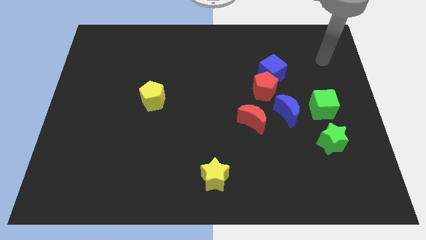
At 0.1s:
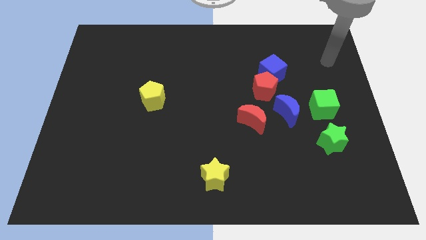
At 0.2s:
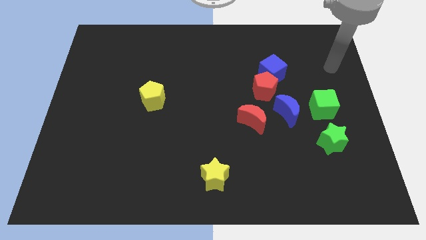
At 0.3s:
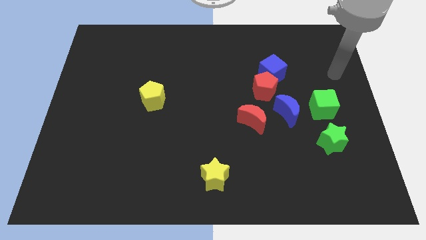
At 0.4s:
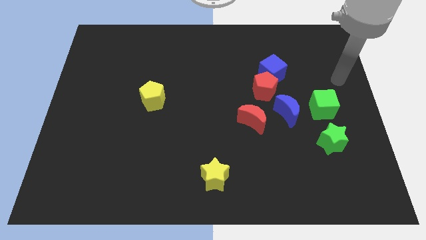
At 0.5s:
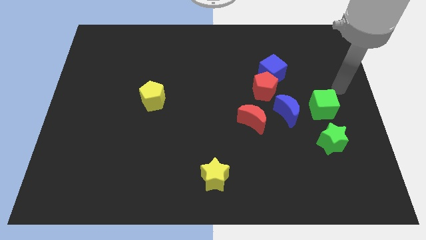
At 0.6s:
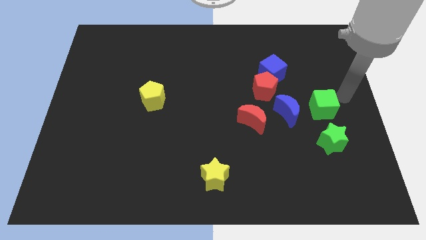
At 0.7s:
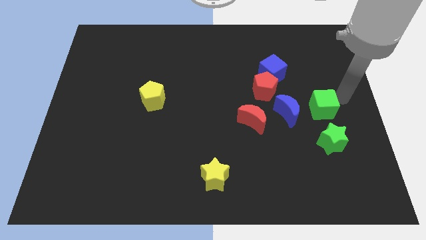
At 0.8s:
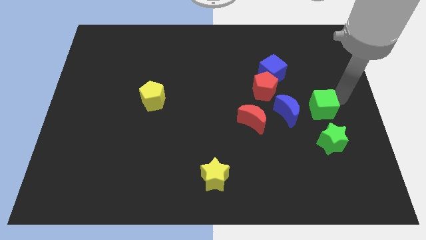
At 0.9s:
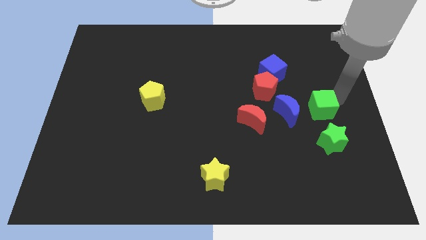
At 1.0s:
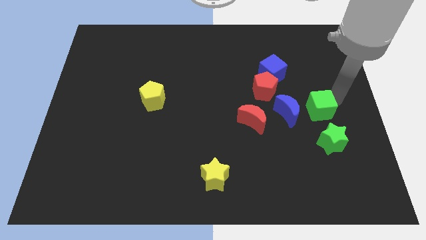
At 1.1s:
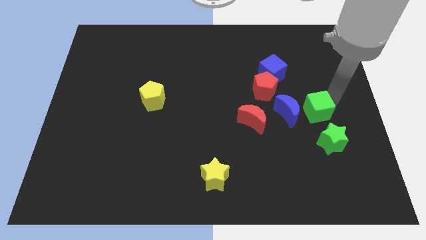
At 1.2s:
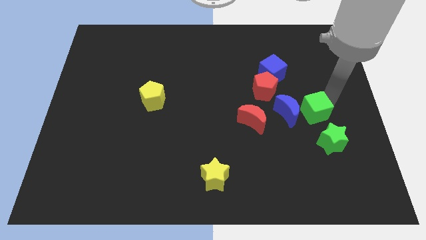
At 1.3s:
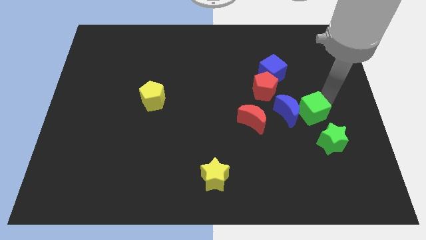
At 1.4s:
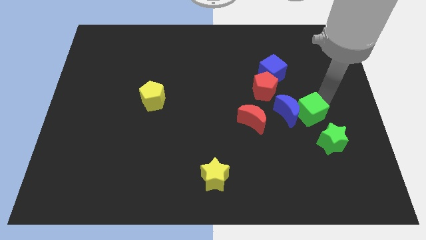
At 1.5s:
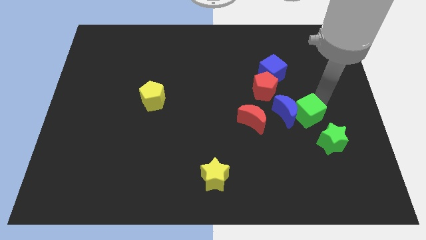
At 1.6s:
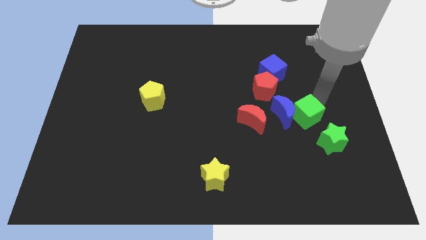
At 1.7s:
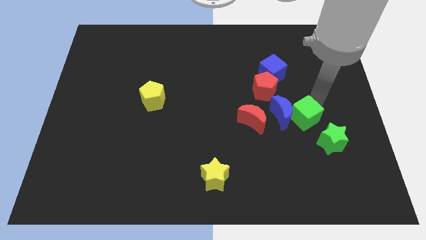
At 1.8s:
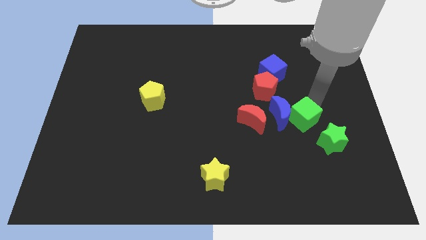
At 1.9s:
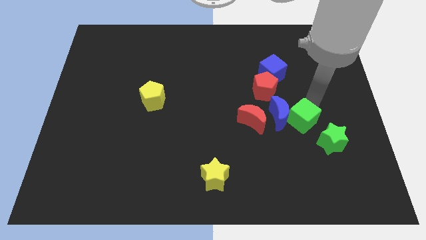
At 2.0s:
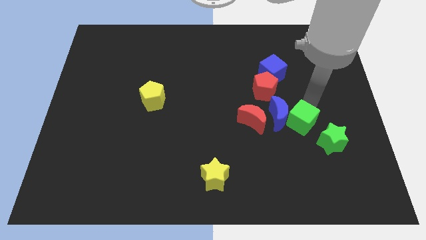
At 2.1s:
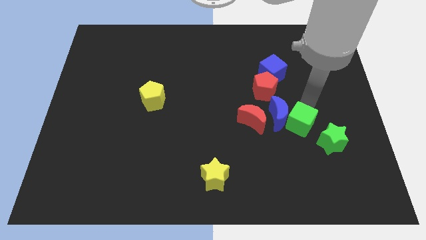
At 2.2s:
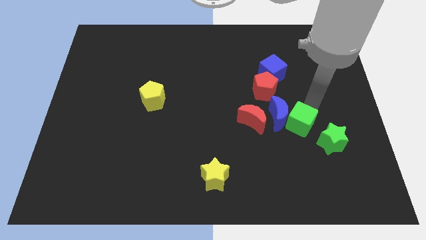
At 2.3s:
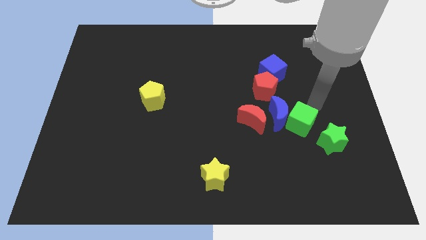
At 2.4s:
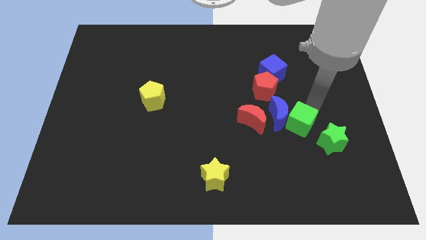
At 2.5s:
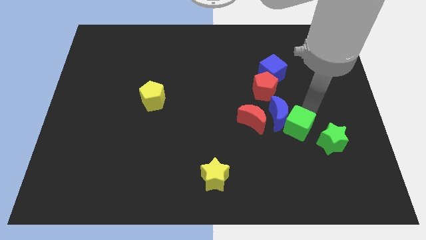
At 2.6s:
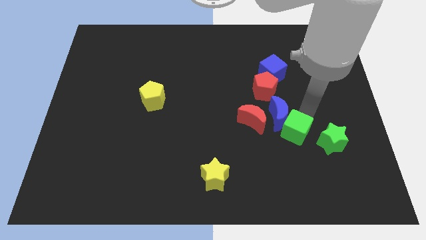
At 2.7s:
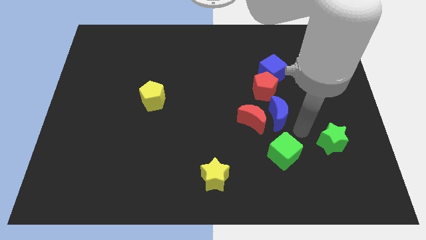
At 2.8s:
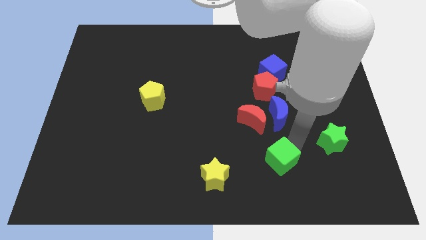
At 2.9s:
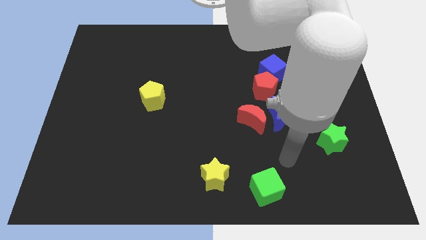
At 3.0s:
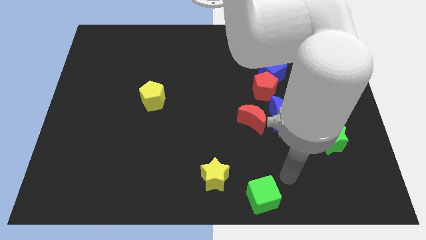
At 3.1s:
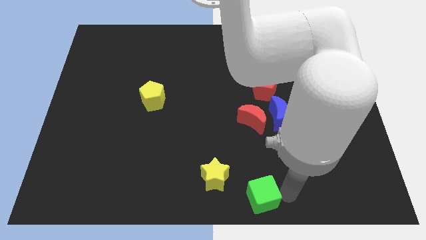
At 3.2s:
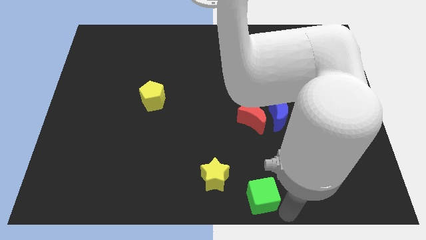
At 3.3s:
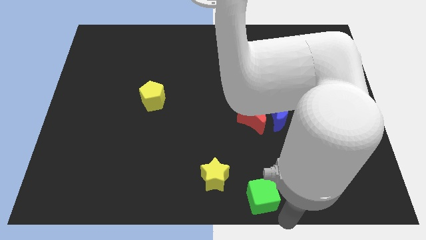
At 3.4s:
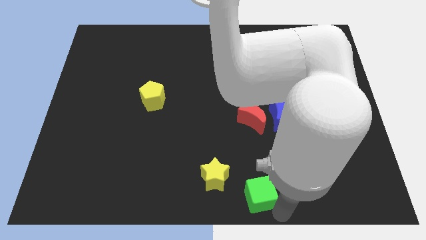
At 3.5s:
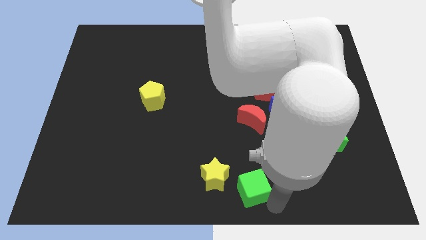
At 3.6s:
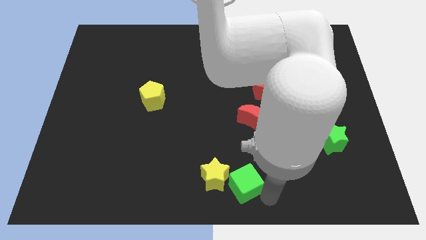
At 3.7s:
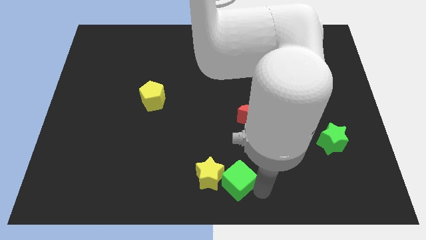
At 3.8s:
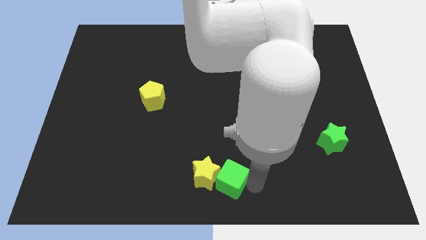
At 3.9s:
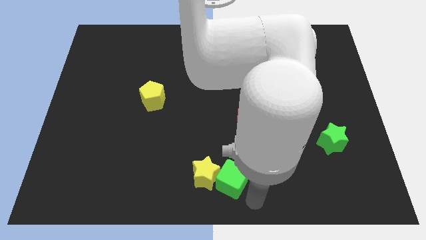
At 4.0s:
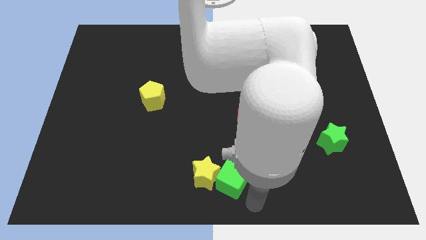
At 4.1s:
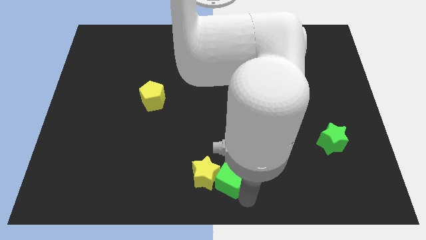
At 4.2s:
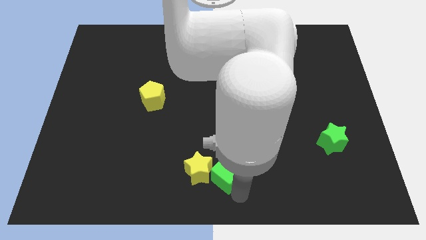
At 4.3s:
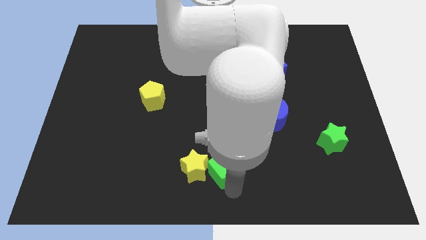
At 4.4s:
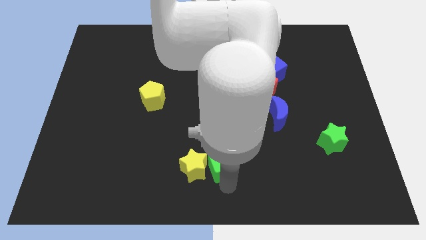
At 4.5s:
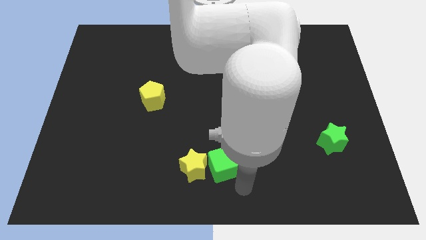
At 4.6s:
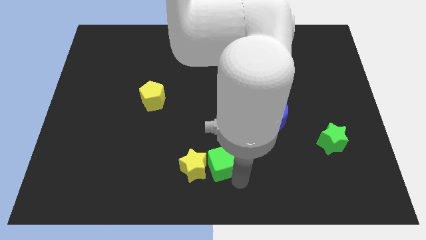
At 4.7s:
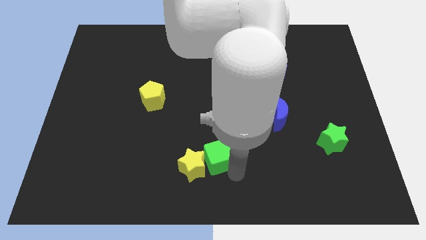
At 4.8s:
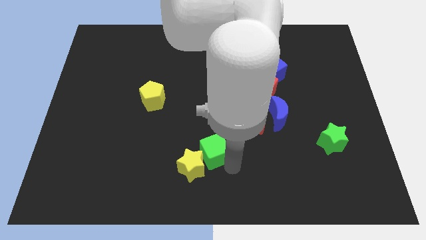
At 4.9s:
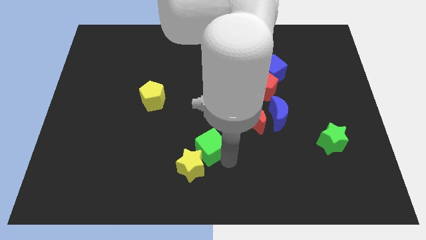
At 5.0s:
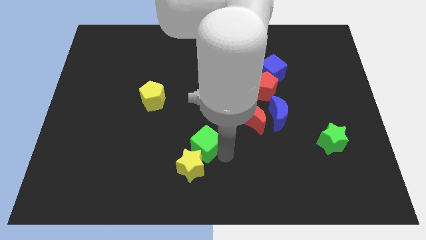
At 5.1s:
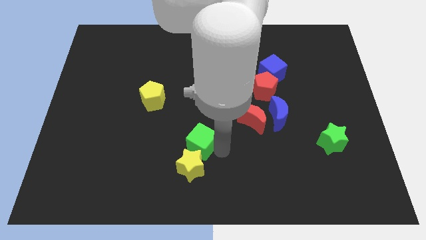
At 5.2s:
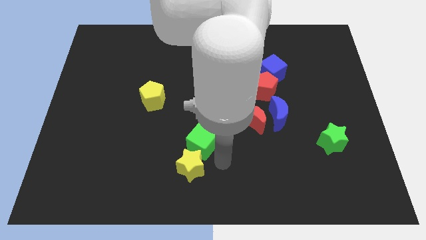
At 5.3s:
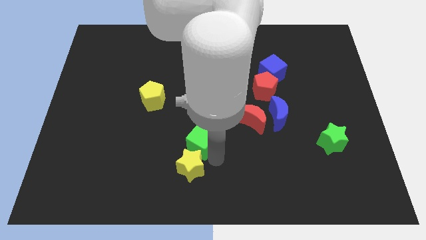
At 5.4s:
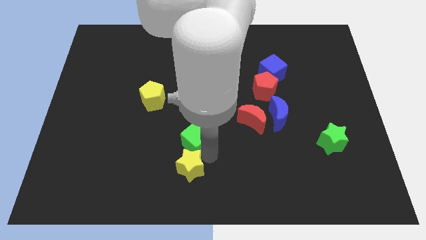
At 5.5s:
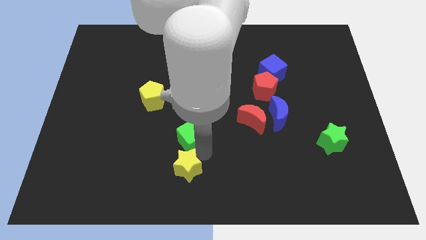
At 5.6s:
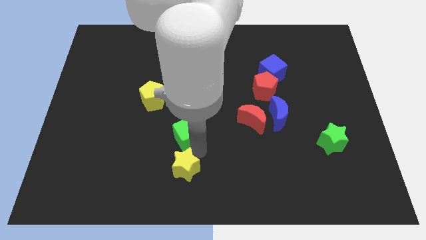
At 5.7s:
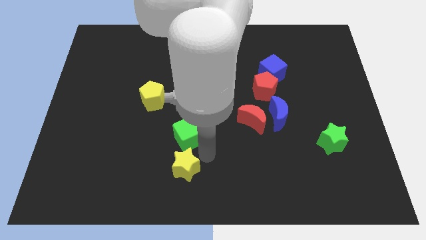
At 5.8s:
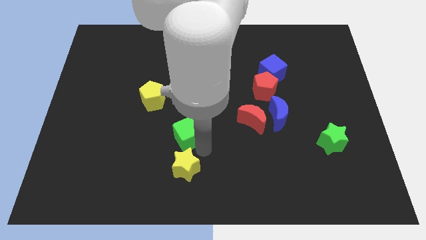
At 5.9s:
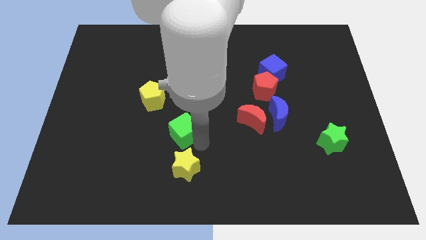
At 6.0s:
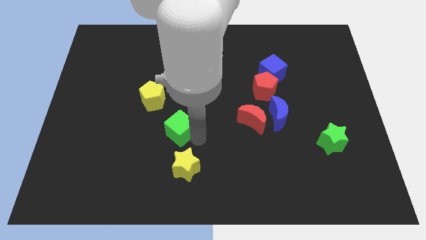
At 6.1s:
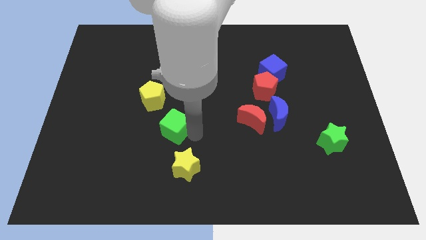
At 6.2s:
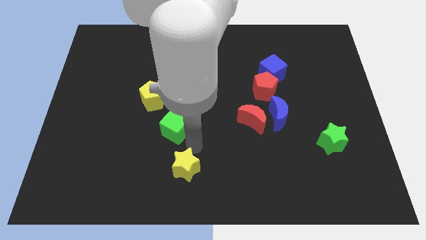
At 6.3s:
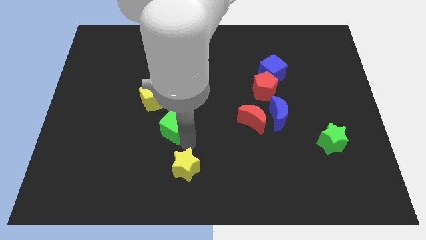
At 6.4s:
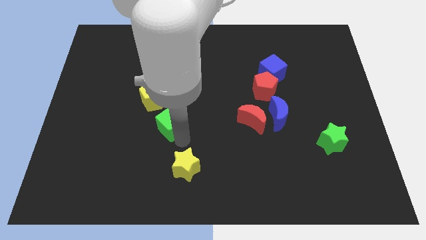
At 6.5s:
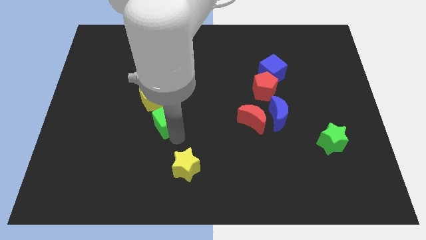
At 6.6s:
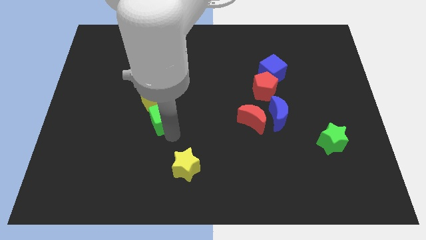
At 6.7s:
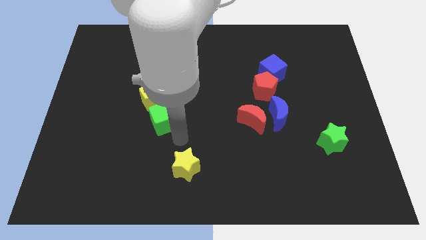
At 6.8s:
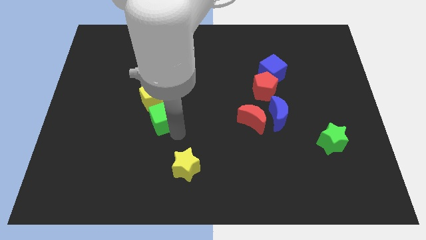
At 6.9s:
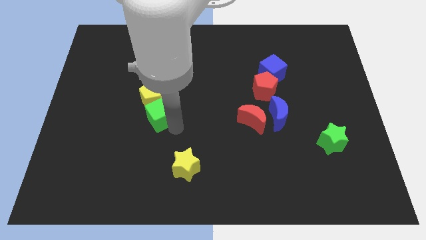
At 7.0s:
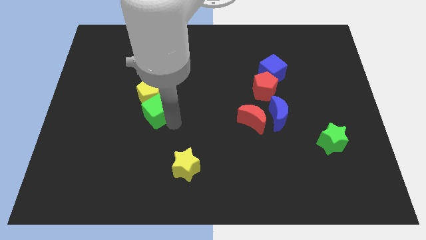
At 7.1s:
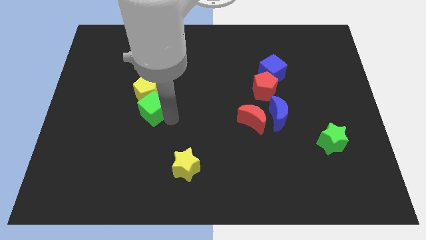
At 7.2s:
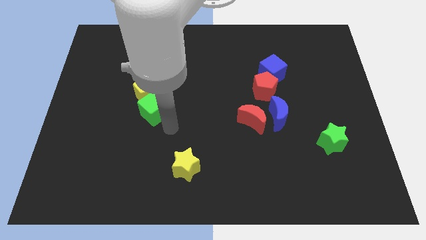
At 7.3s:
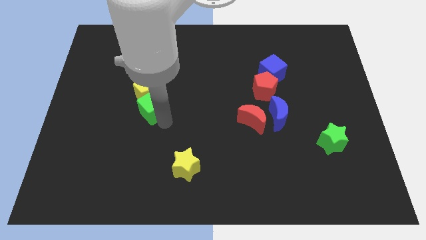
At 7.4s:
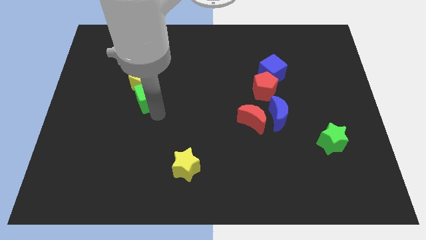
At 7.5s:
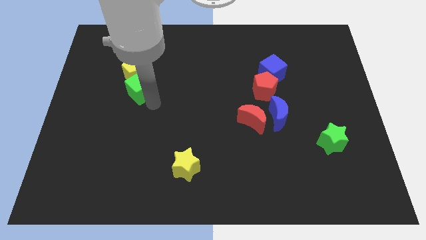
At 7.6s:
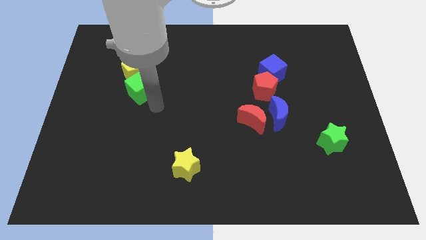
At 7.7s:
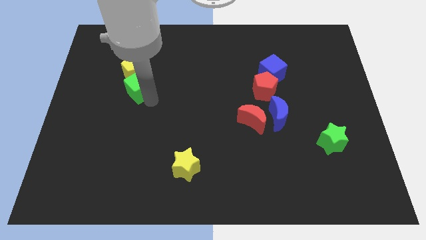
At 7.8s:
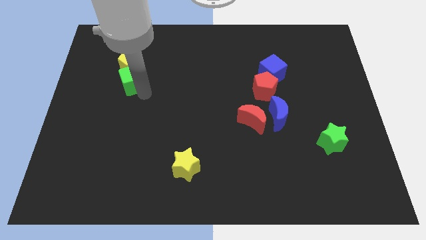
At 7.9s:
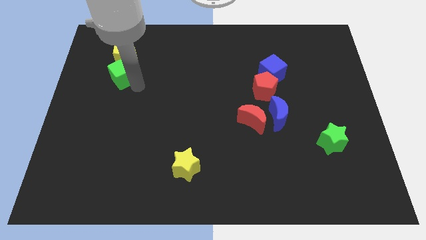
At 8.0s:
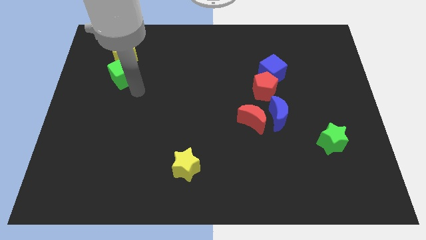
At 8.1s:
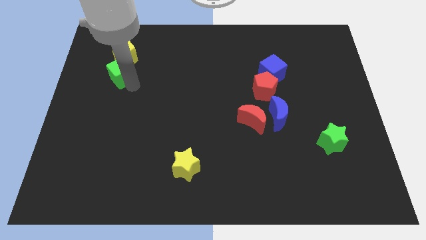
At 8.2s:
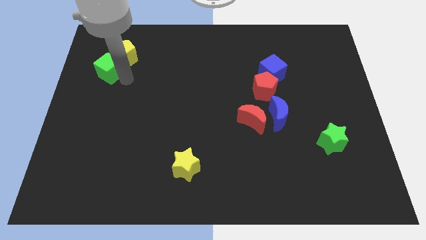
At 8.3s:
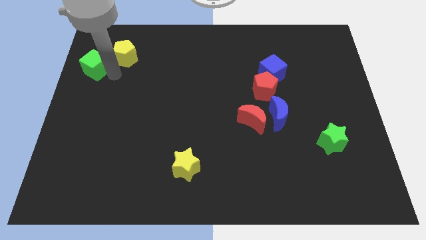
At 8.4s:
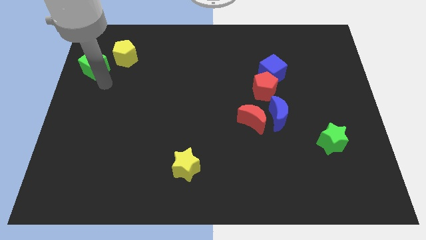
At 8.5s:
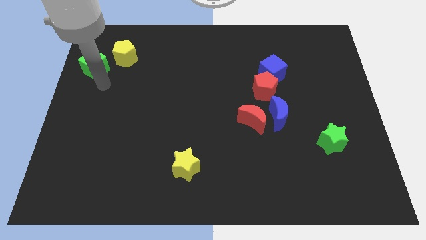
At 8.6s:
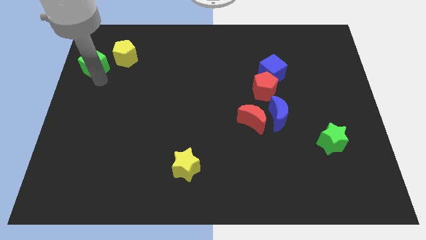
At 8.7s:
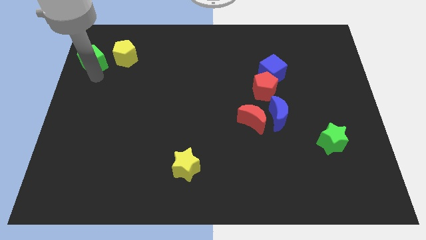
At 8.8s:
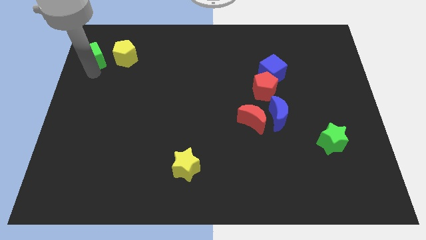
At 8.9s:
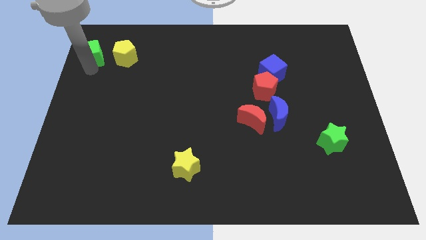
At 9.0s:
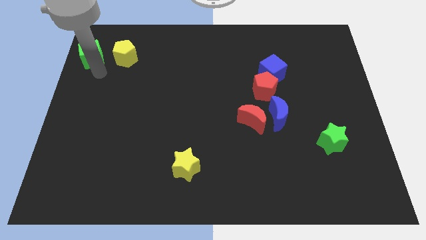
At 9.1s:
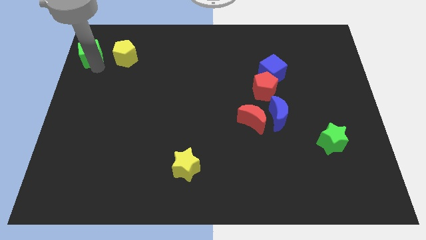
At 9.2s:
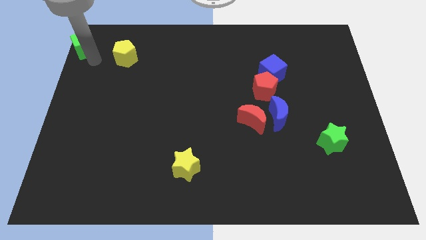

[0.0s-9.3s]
slide the green cube to the upper left corner
